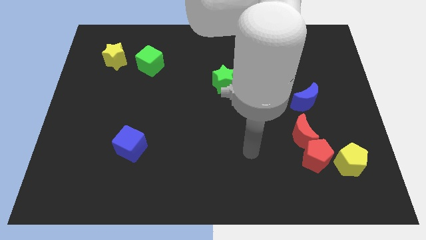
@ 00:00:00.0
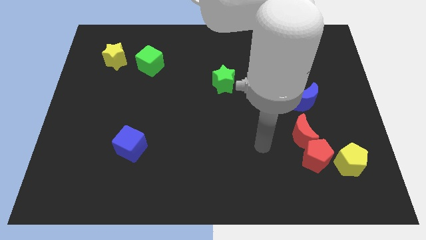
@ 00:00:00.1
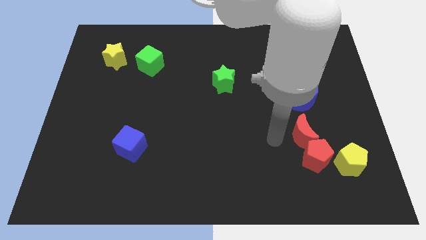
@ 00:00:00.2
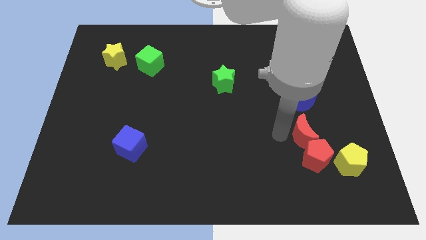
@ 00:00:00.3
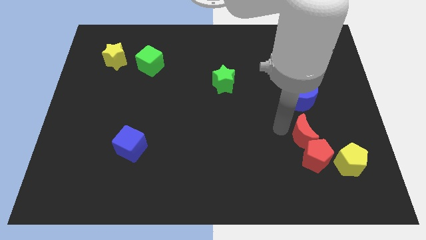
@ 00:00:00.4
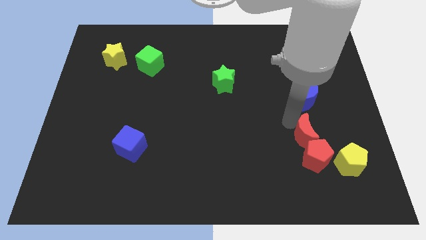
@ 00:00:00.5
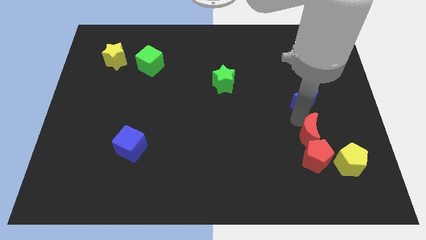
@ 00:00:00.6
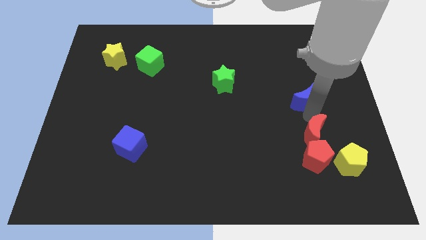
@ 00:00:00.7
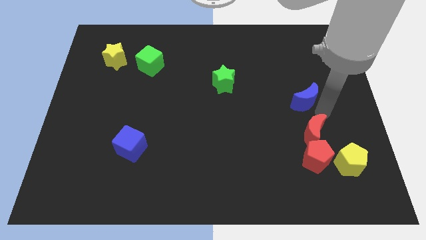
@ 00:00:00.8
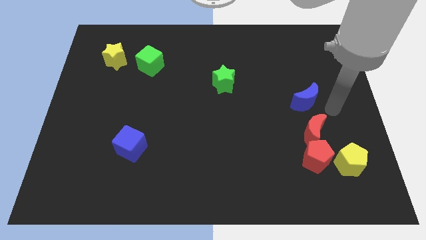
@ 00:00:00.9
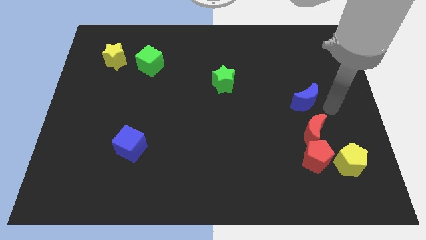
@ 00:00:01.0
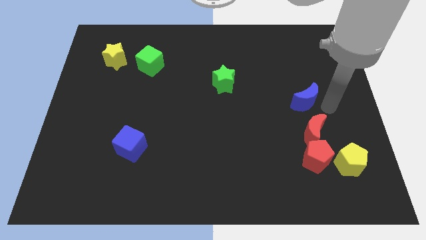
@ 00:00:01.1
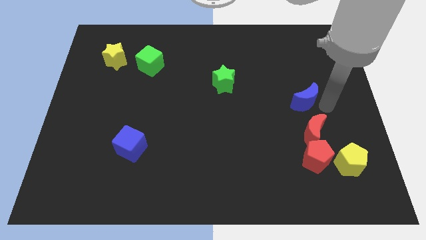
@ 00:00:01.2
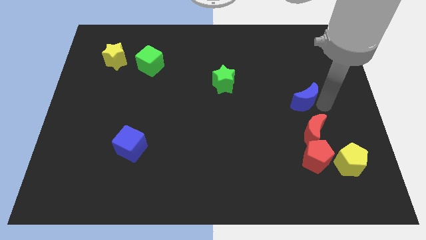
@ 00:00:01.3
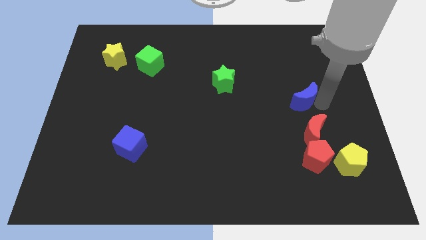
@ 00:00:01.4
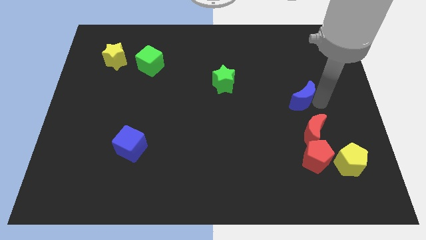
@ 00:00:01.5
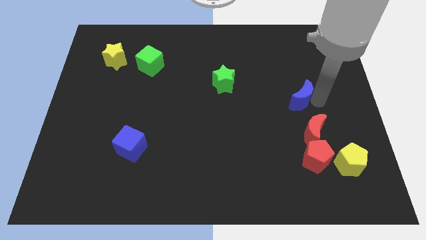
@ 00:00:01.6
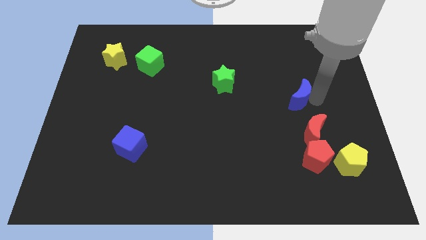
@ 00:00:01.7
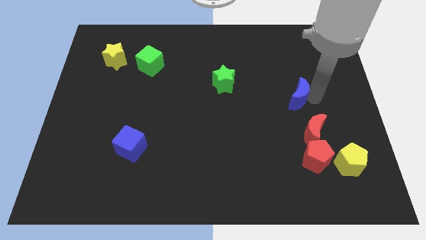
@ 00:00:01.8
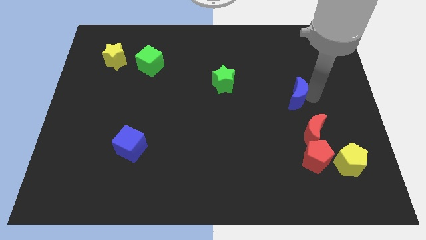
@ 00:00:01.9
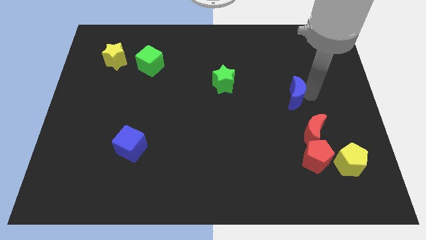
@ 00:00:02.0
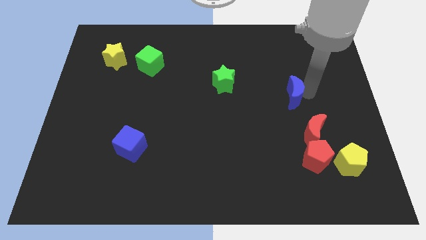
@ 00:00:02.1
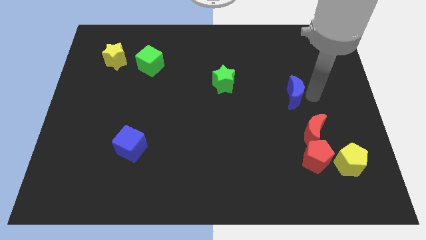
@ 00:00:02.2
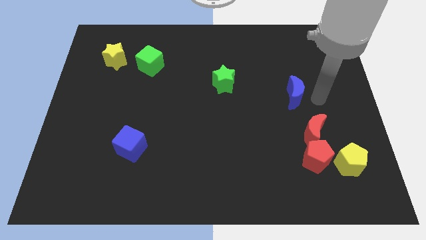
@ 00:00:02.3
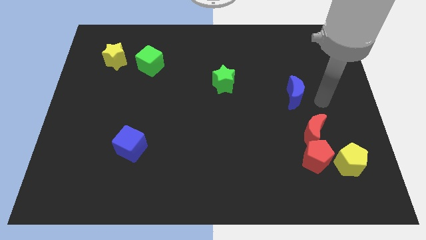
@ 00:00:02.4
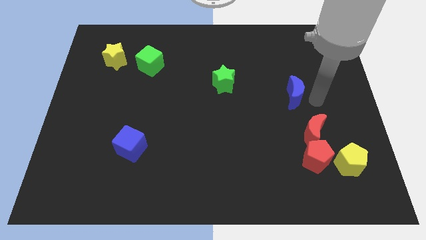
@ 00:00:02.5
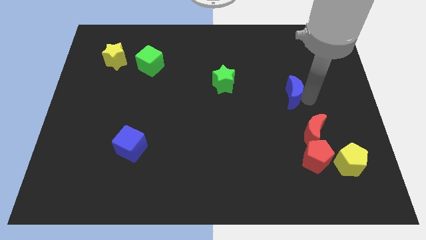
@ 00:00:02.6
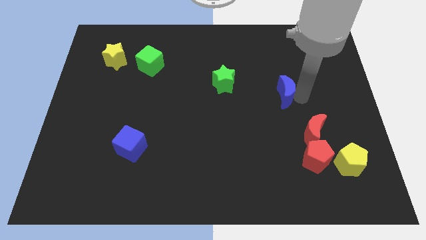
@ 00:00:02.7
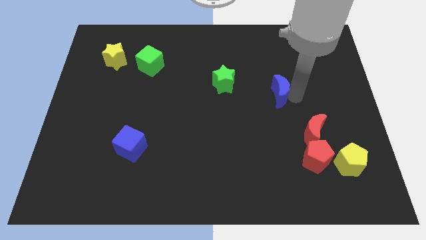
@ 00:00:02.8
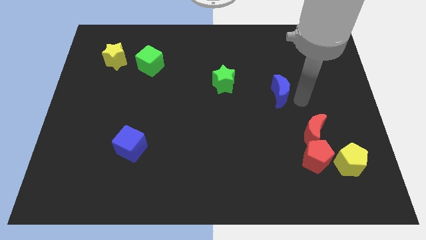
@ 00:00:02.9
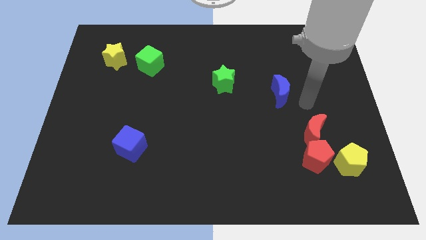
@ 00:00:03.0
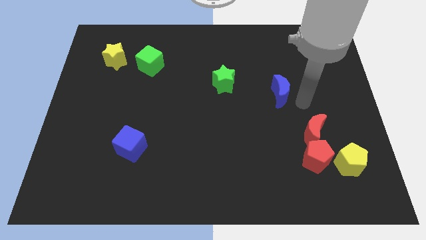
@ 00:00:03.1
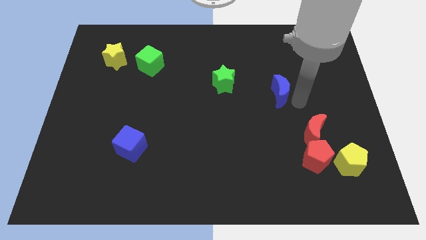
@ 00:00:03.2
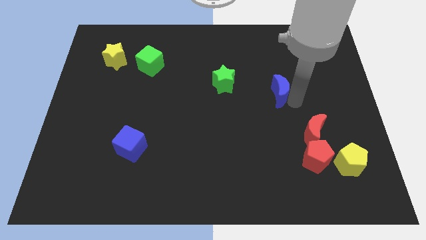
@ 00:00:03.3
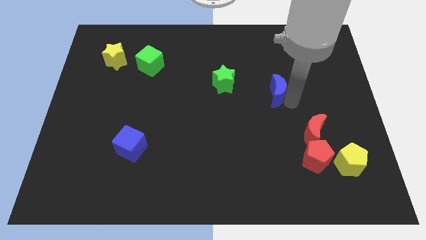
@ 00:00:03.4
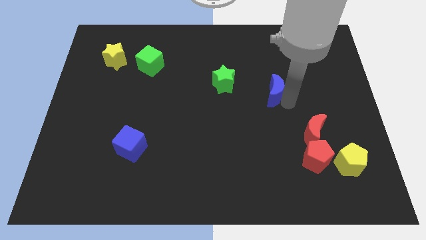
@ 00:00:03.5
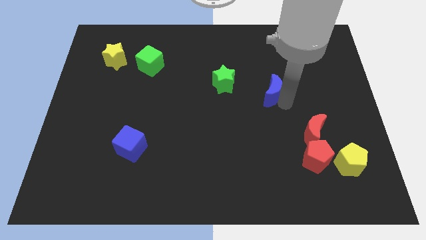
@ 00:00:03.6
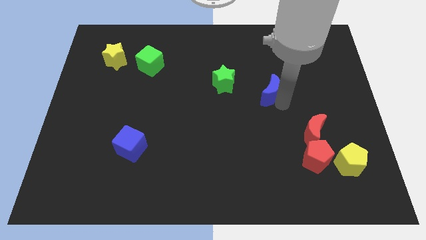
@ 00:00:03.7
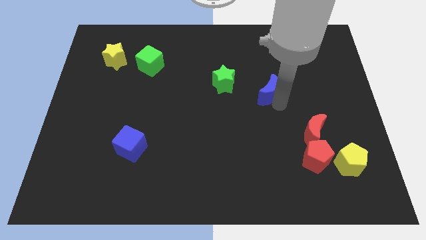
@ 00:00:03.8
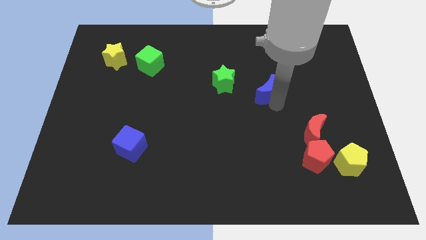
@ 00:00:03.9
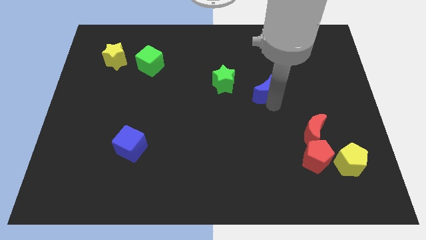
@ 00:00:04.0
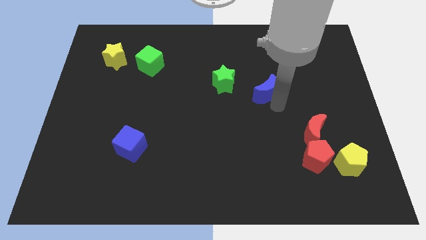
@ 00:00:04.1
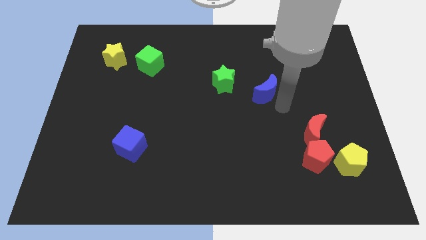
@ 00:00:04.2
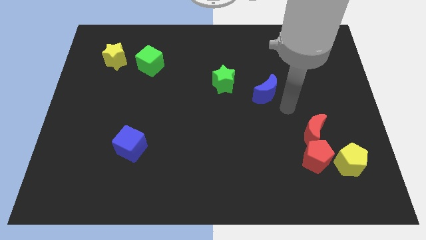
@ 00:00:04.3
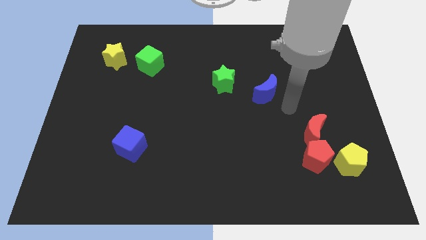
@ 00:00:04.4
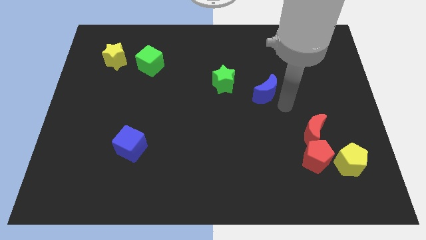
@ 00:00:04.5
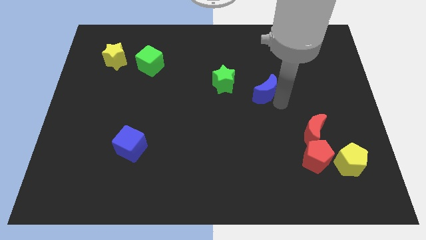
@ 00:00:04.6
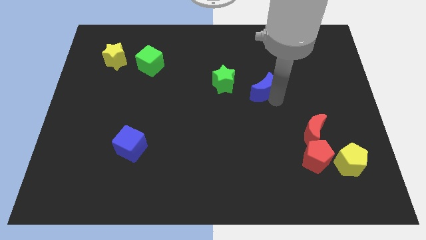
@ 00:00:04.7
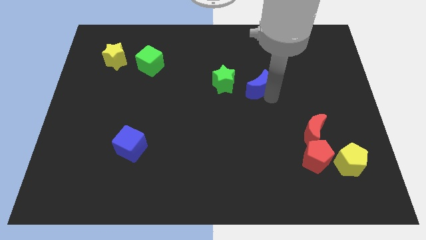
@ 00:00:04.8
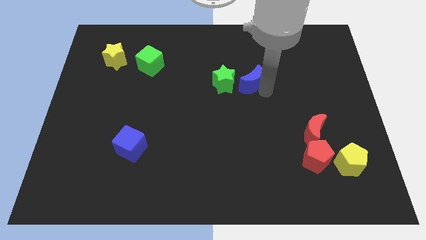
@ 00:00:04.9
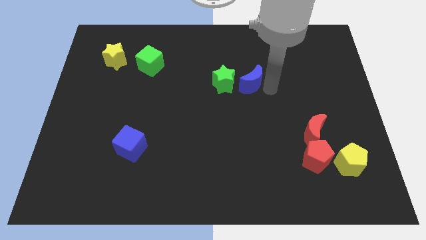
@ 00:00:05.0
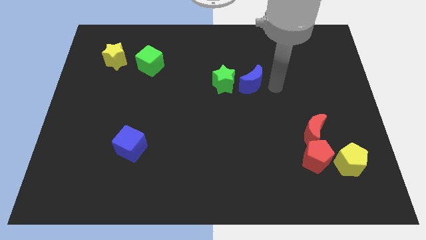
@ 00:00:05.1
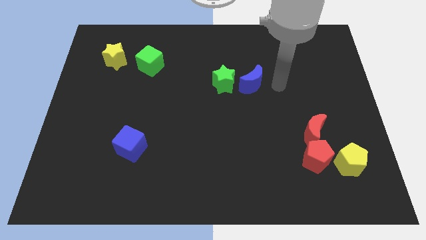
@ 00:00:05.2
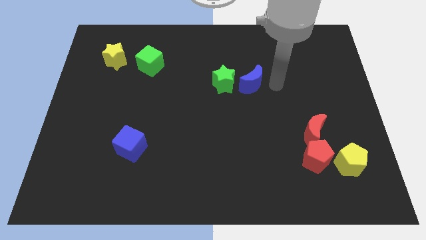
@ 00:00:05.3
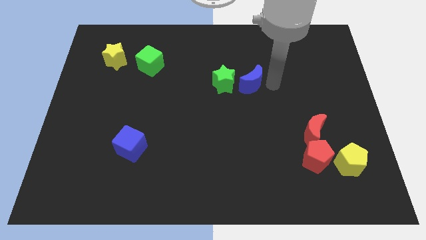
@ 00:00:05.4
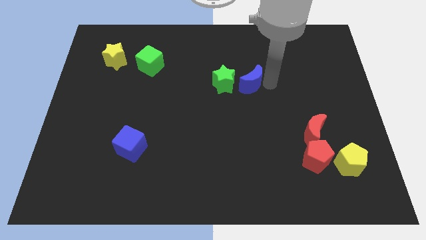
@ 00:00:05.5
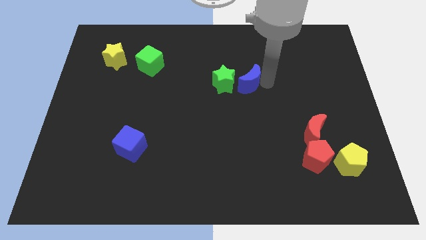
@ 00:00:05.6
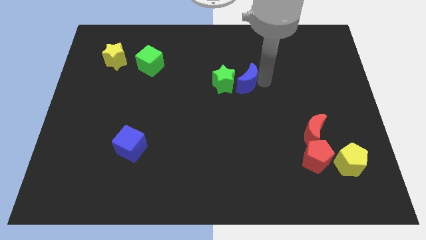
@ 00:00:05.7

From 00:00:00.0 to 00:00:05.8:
push the blue moon to the green star

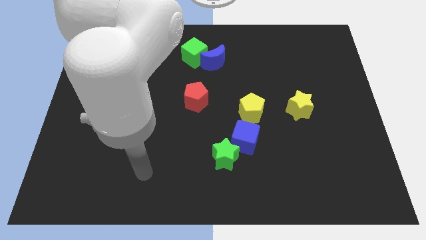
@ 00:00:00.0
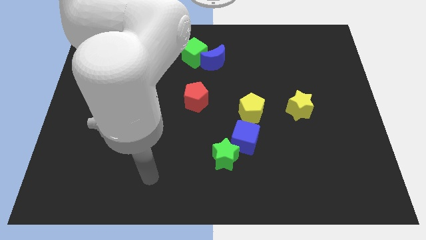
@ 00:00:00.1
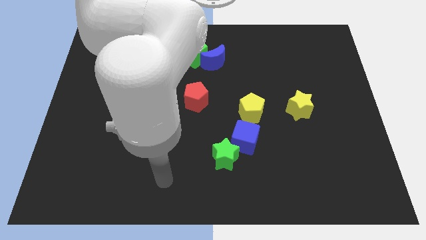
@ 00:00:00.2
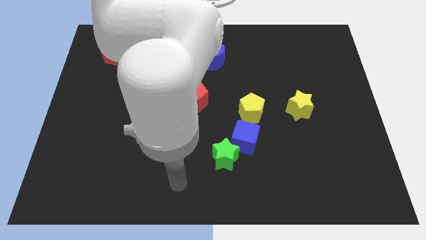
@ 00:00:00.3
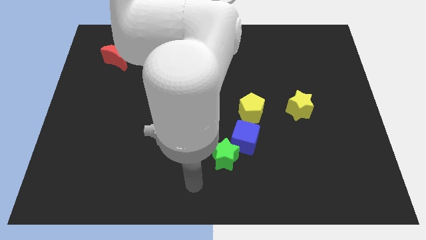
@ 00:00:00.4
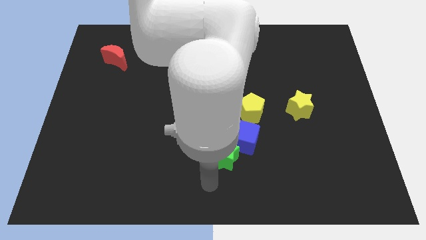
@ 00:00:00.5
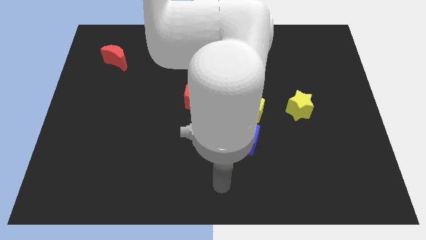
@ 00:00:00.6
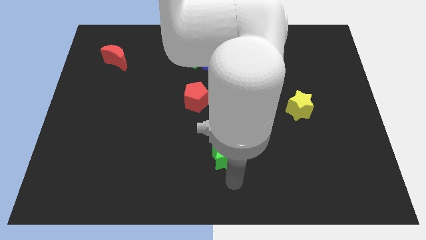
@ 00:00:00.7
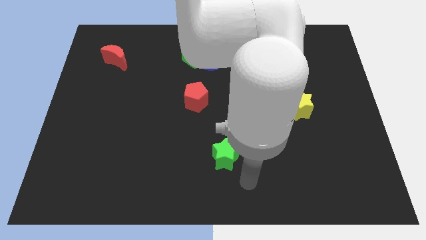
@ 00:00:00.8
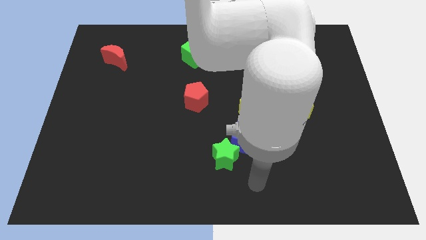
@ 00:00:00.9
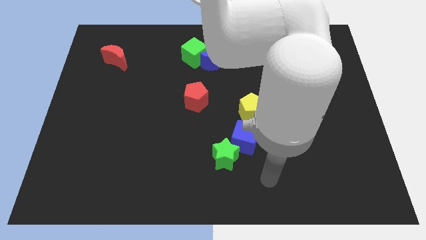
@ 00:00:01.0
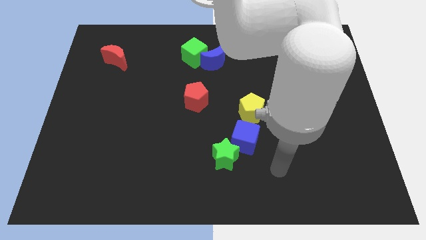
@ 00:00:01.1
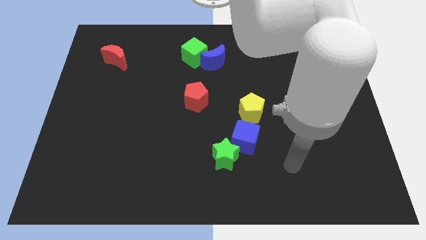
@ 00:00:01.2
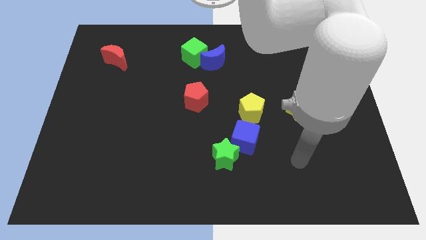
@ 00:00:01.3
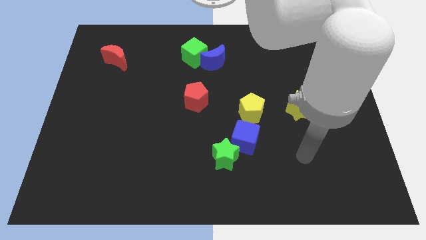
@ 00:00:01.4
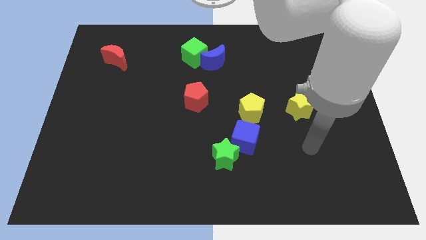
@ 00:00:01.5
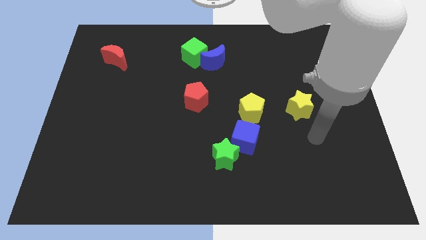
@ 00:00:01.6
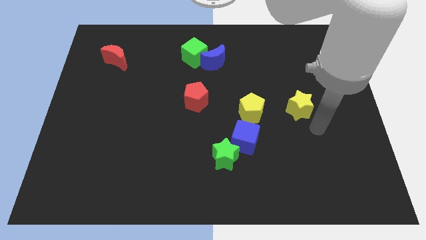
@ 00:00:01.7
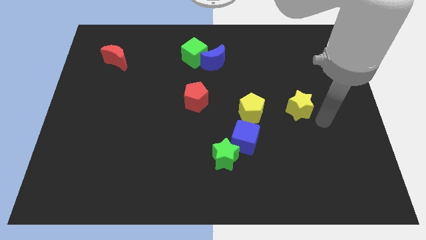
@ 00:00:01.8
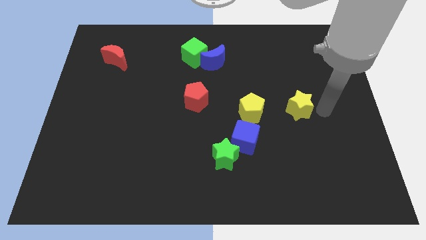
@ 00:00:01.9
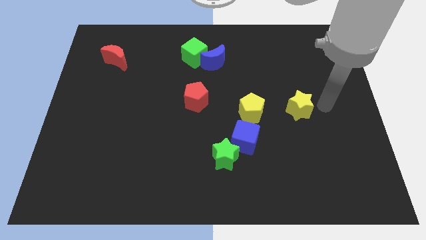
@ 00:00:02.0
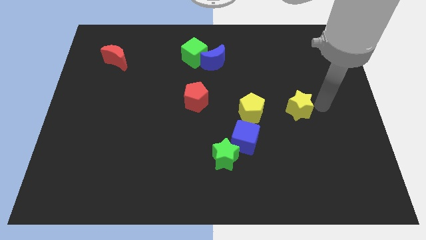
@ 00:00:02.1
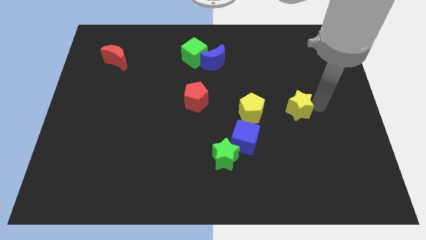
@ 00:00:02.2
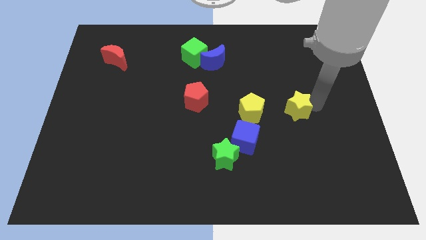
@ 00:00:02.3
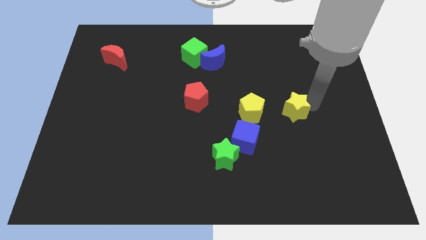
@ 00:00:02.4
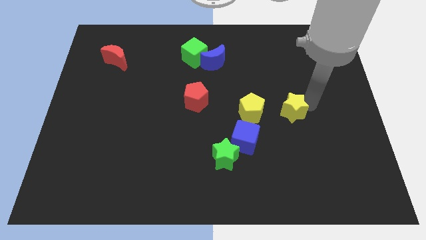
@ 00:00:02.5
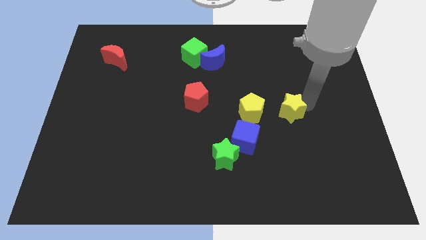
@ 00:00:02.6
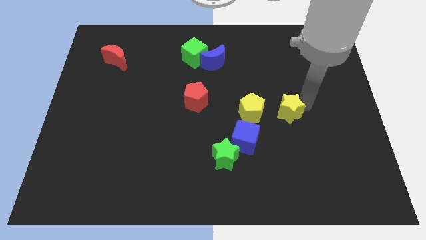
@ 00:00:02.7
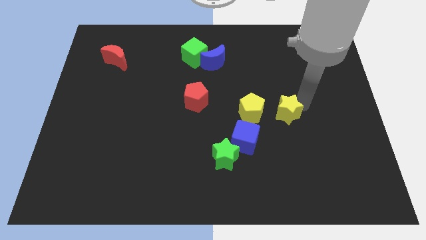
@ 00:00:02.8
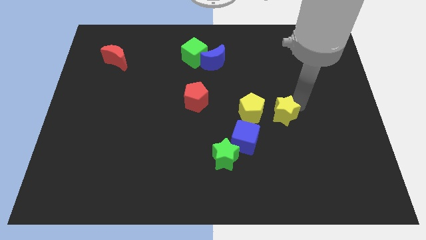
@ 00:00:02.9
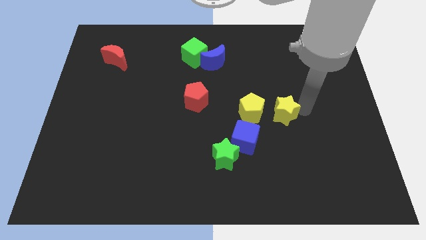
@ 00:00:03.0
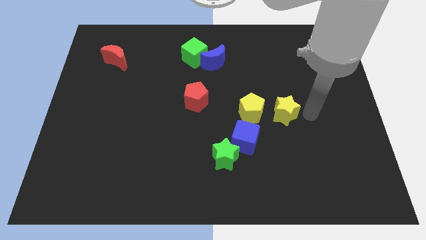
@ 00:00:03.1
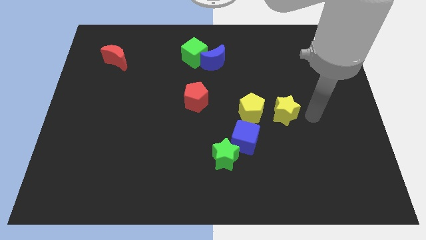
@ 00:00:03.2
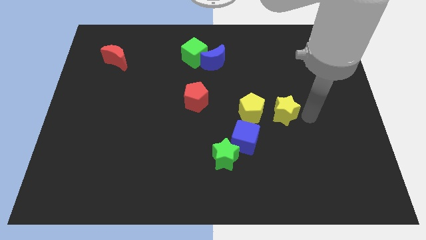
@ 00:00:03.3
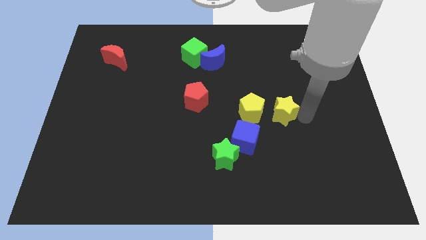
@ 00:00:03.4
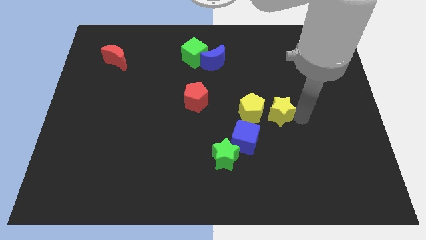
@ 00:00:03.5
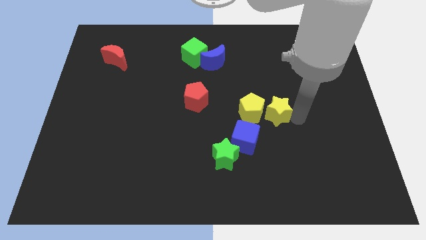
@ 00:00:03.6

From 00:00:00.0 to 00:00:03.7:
put the yellow star close to the yellow pentagon
